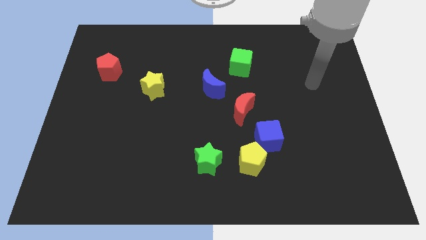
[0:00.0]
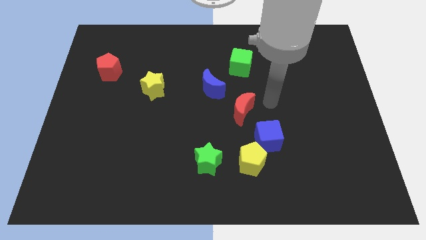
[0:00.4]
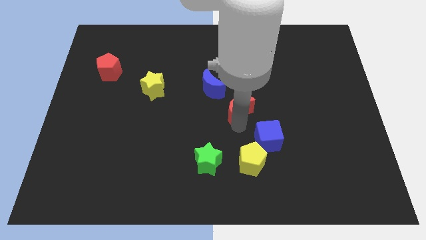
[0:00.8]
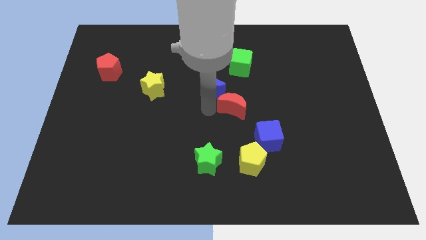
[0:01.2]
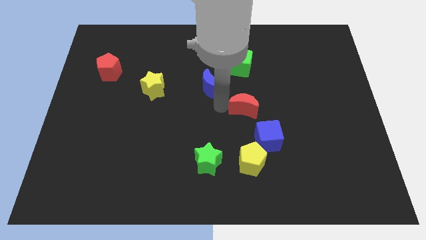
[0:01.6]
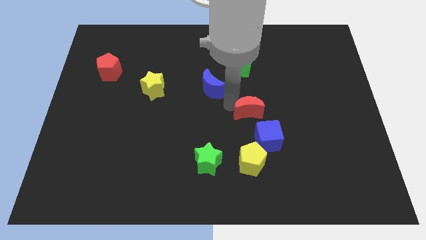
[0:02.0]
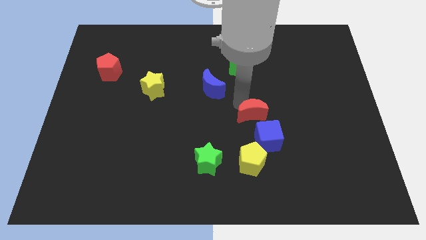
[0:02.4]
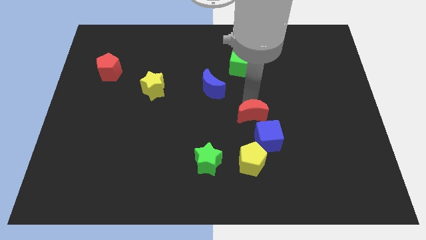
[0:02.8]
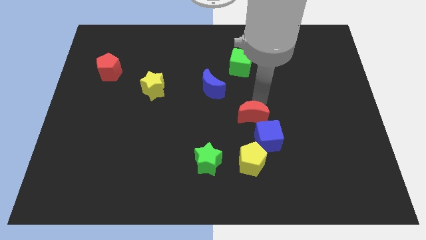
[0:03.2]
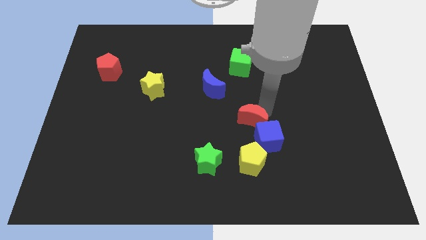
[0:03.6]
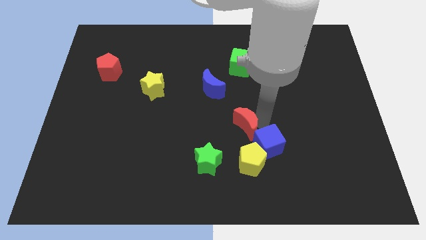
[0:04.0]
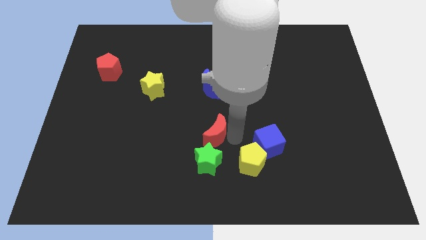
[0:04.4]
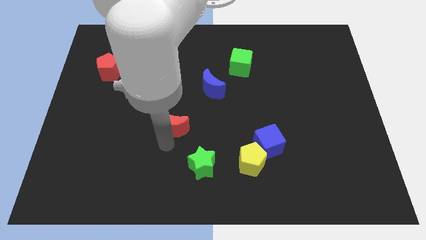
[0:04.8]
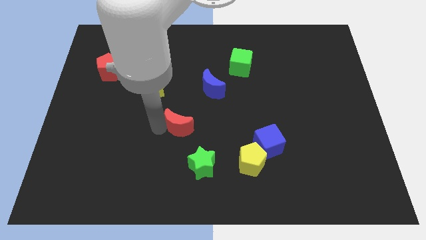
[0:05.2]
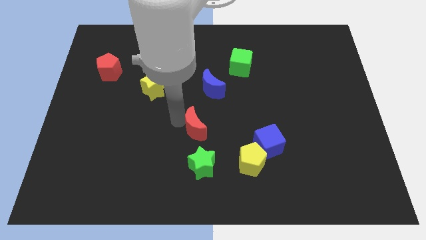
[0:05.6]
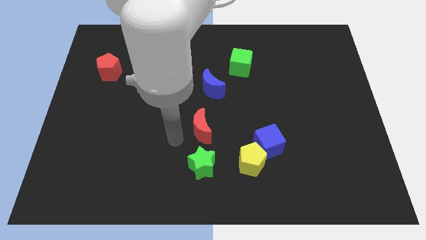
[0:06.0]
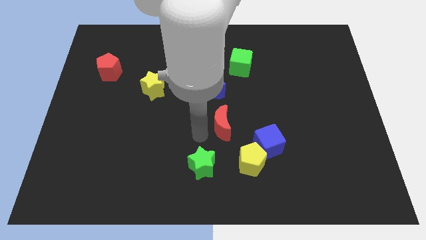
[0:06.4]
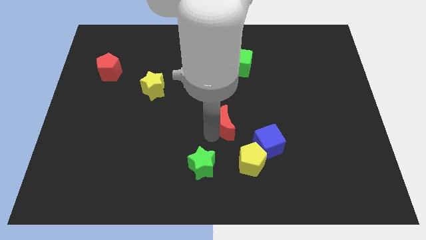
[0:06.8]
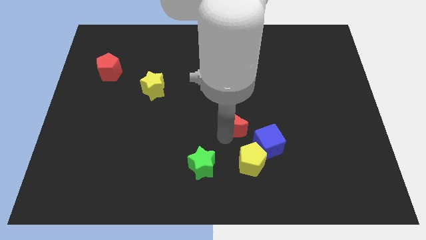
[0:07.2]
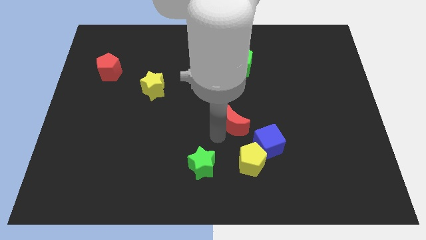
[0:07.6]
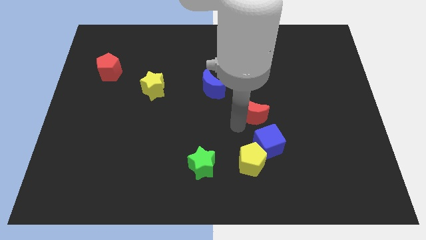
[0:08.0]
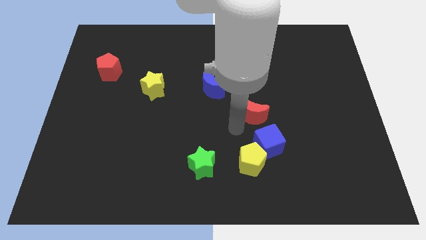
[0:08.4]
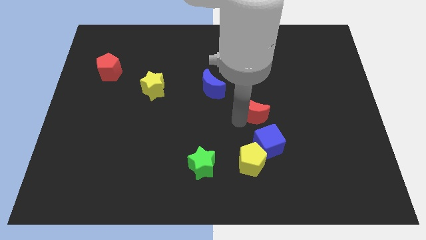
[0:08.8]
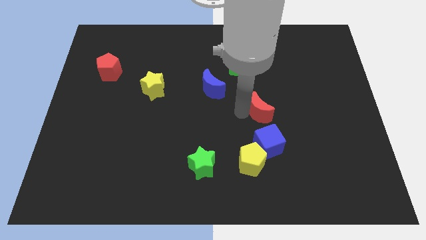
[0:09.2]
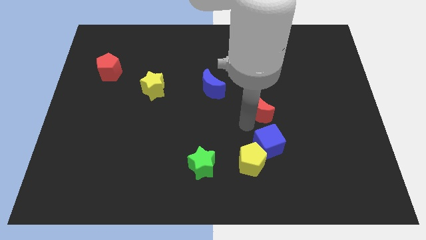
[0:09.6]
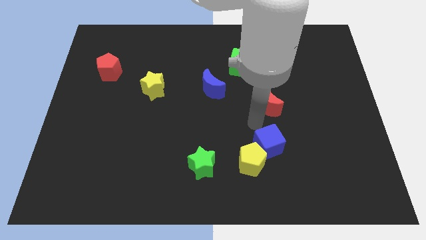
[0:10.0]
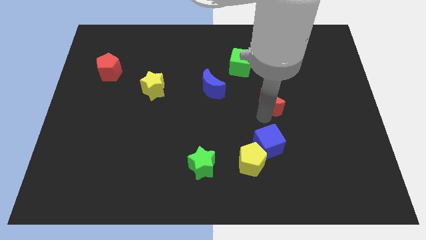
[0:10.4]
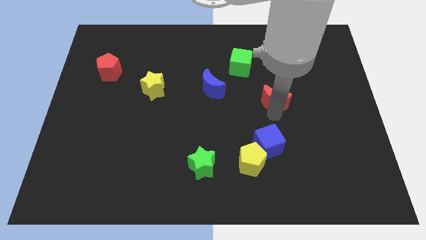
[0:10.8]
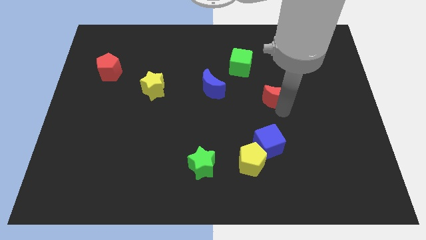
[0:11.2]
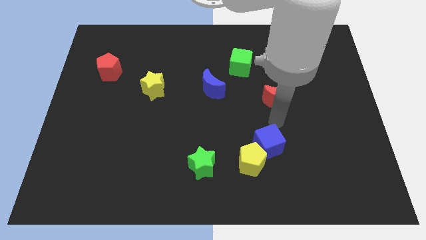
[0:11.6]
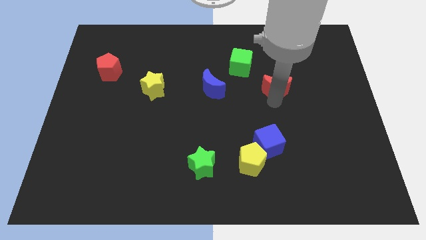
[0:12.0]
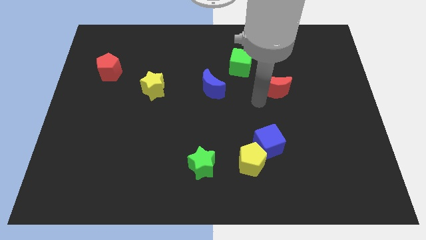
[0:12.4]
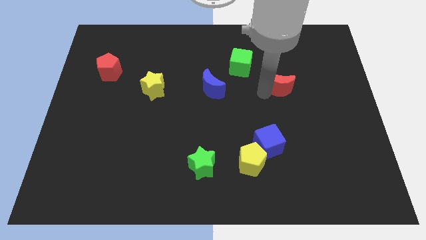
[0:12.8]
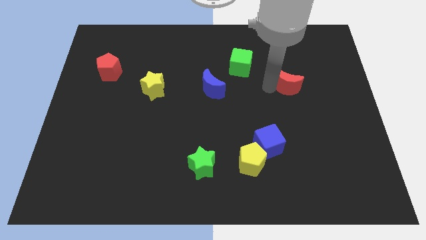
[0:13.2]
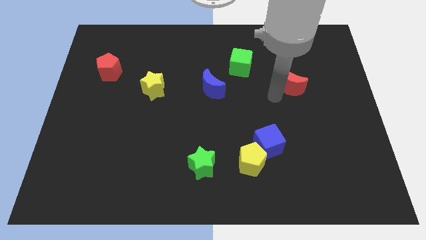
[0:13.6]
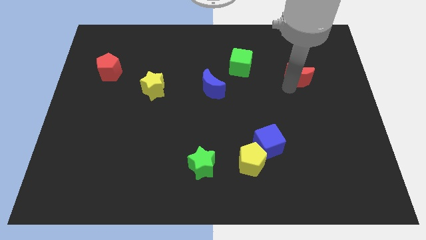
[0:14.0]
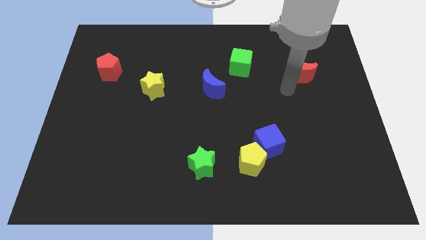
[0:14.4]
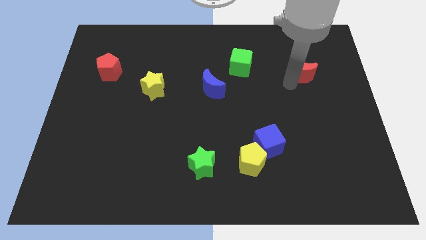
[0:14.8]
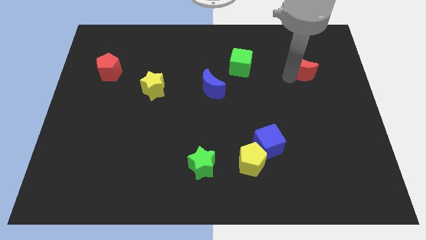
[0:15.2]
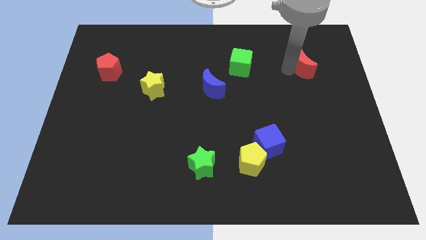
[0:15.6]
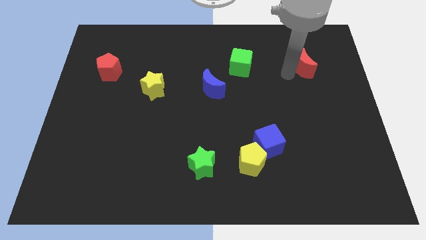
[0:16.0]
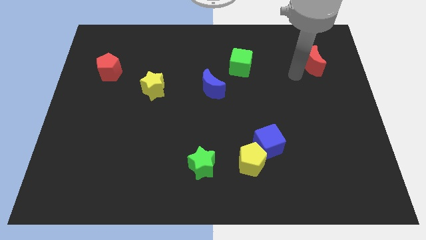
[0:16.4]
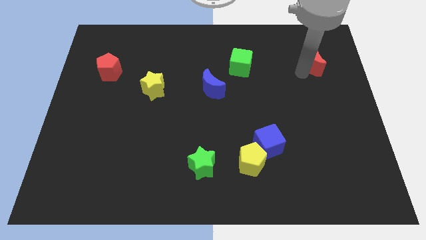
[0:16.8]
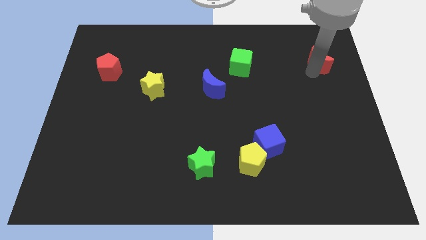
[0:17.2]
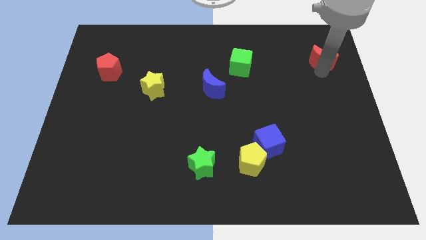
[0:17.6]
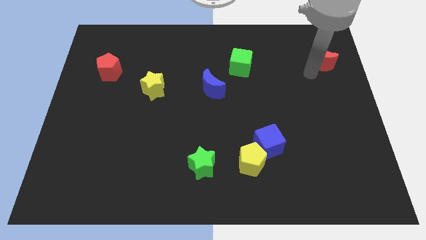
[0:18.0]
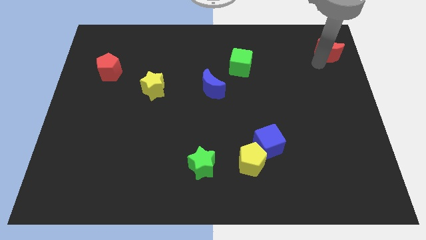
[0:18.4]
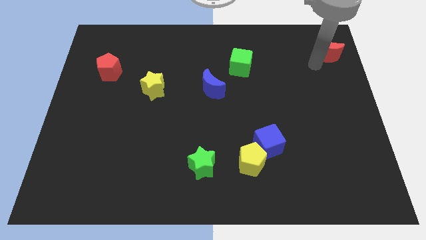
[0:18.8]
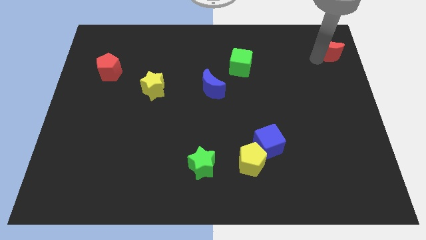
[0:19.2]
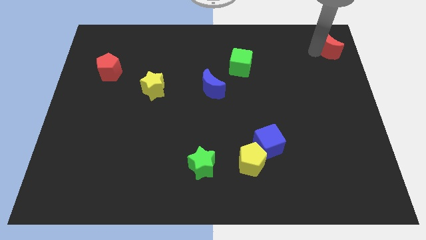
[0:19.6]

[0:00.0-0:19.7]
put the red moon to the top right

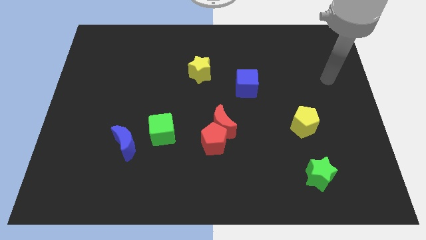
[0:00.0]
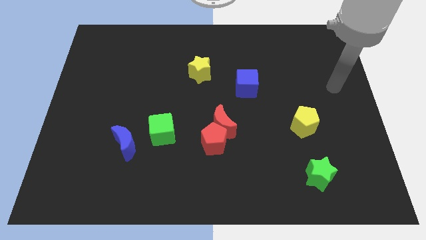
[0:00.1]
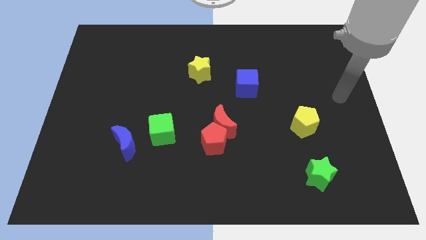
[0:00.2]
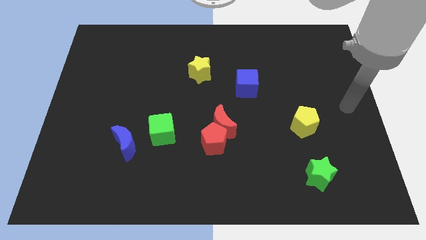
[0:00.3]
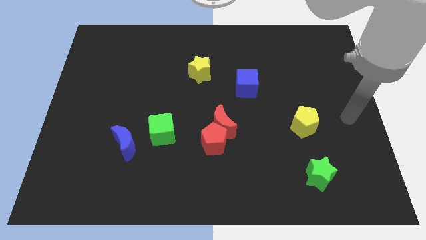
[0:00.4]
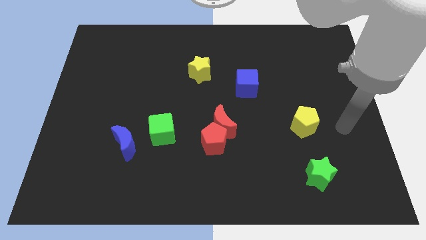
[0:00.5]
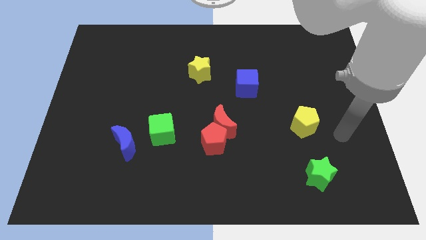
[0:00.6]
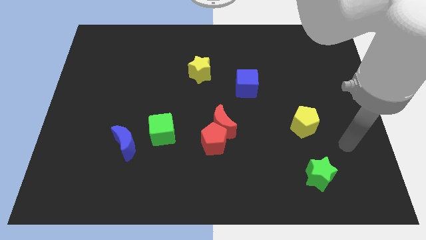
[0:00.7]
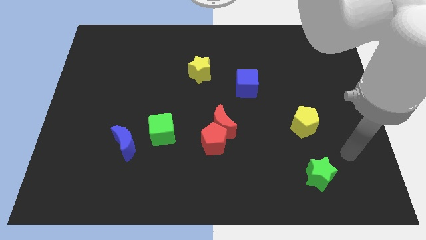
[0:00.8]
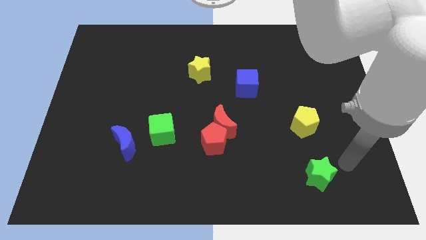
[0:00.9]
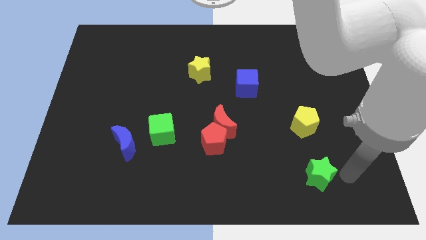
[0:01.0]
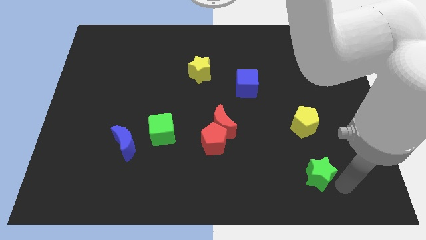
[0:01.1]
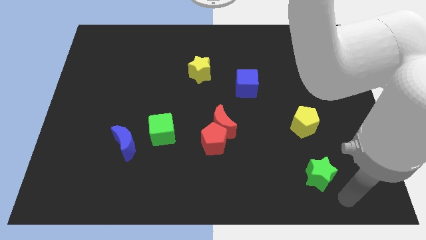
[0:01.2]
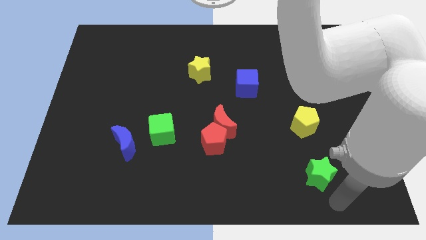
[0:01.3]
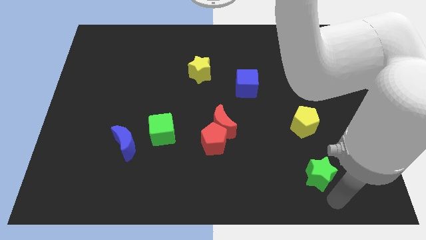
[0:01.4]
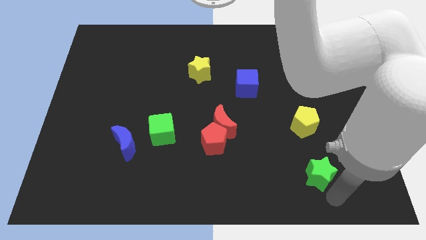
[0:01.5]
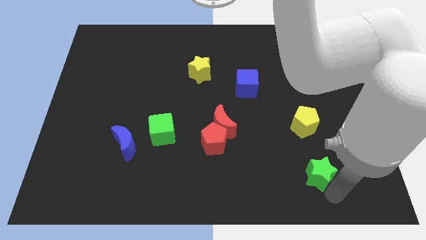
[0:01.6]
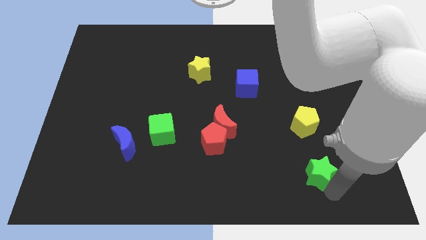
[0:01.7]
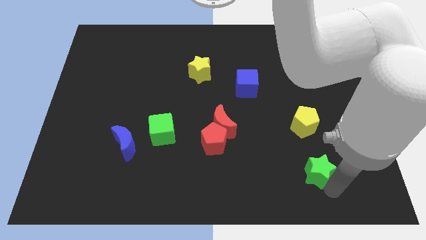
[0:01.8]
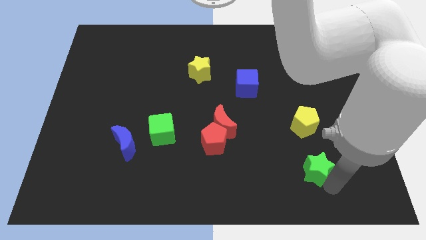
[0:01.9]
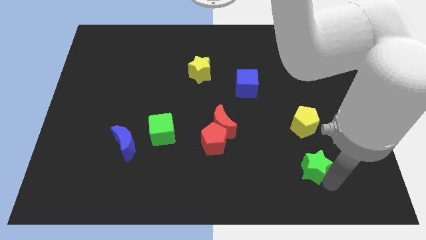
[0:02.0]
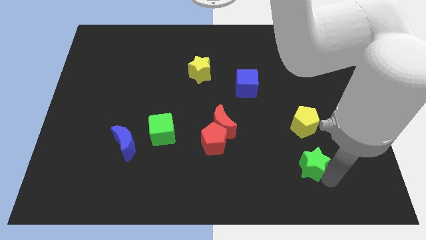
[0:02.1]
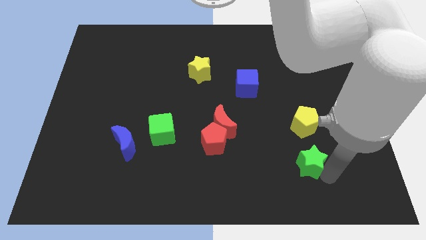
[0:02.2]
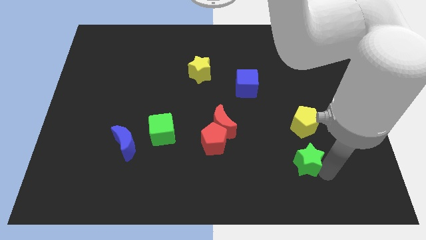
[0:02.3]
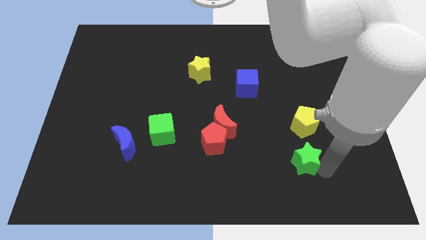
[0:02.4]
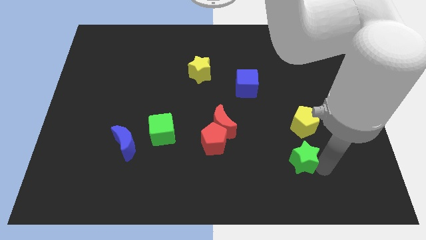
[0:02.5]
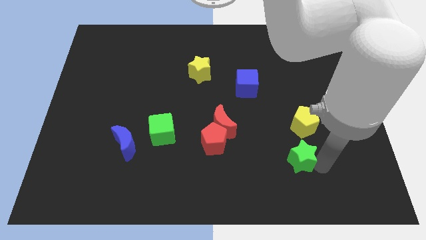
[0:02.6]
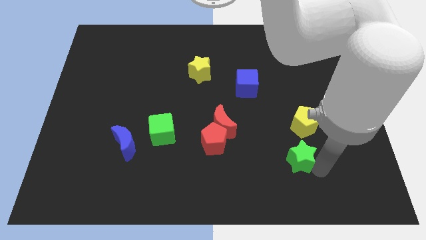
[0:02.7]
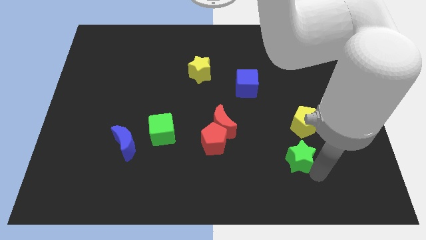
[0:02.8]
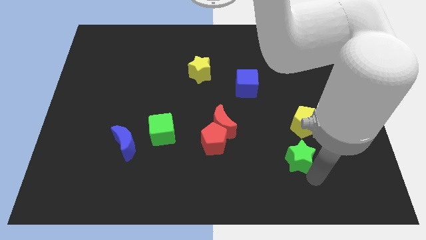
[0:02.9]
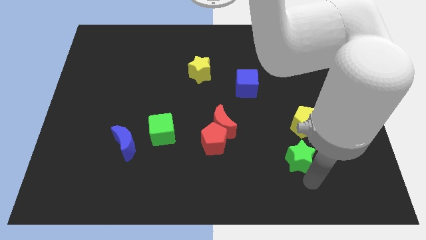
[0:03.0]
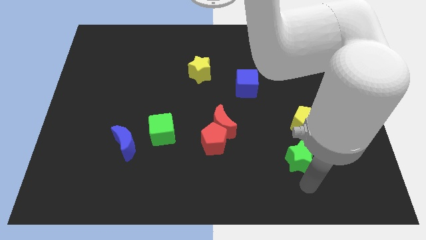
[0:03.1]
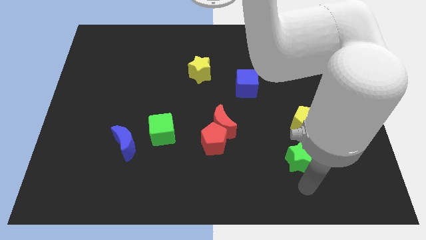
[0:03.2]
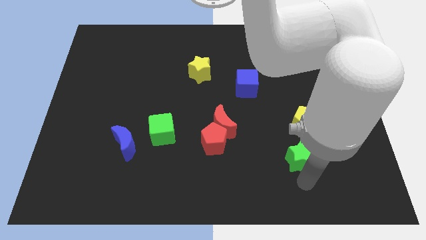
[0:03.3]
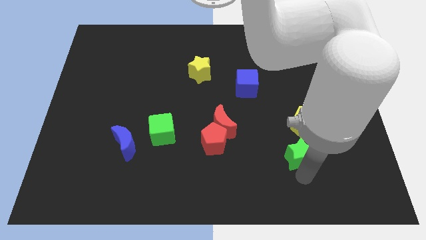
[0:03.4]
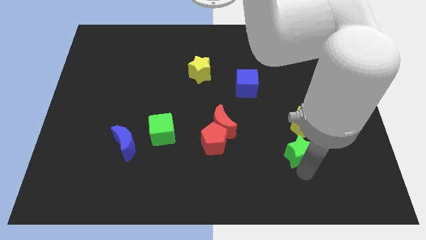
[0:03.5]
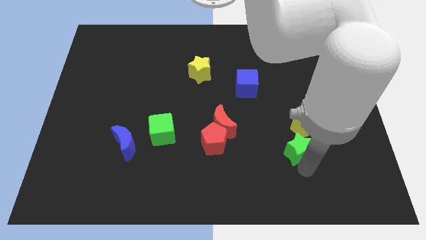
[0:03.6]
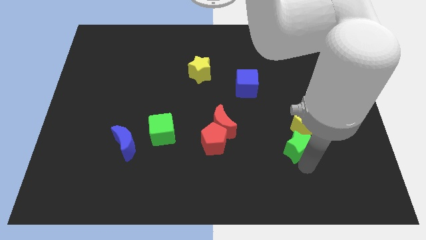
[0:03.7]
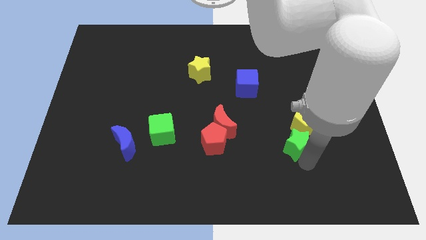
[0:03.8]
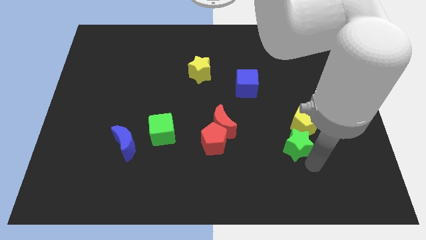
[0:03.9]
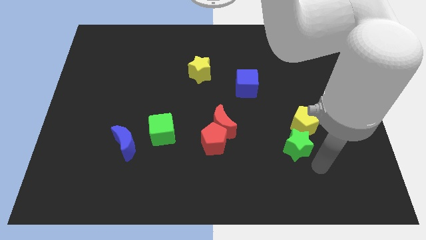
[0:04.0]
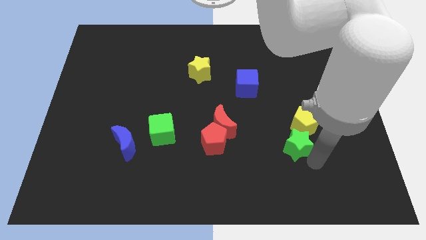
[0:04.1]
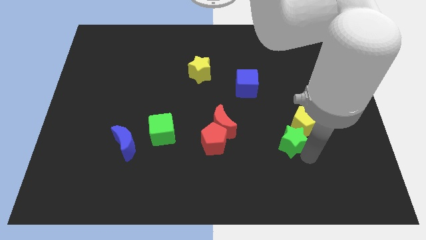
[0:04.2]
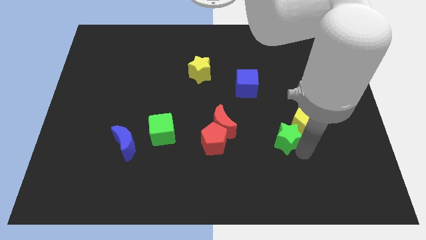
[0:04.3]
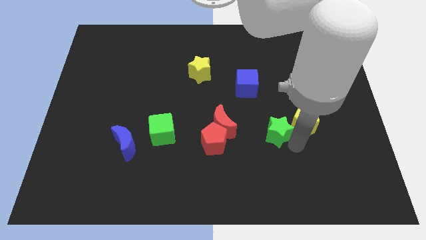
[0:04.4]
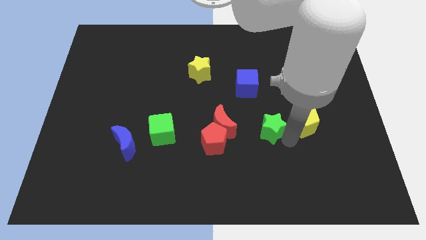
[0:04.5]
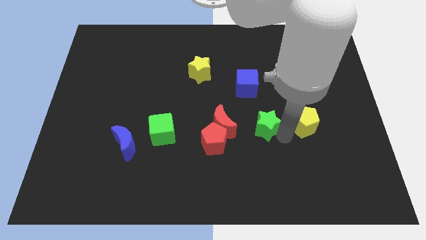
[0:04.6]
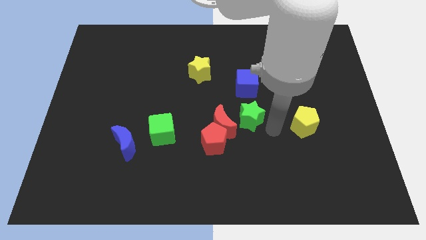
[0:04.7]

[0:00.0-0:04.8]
slide the green star to the center
